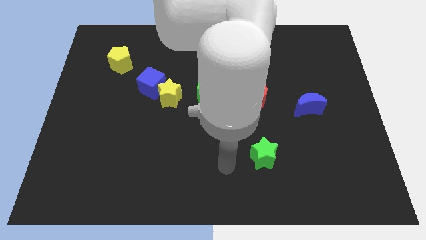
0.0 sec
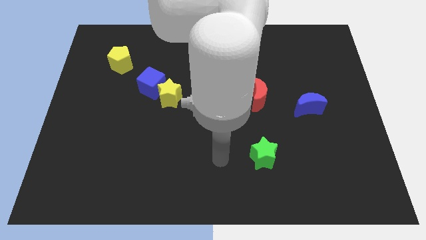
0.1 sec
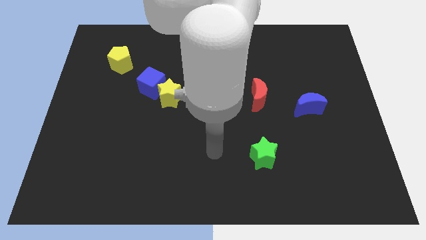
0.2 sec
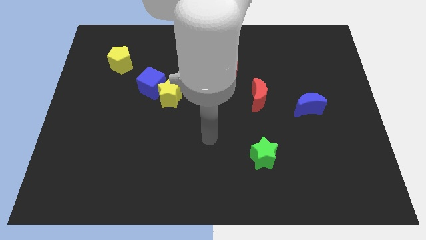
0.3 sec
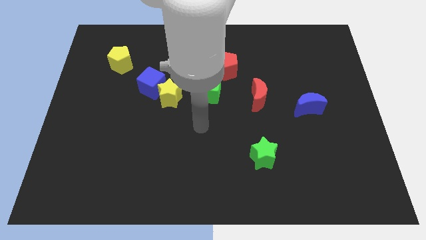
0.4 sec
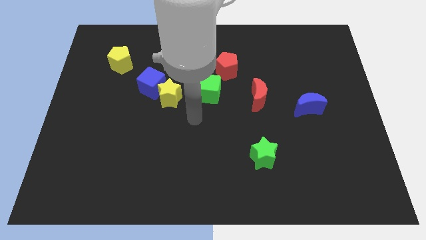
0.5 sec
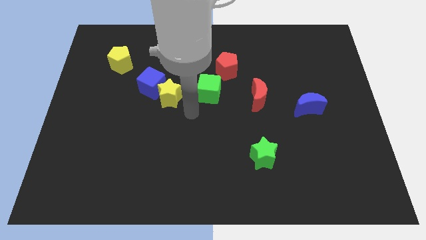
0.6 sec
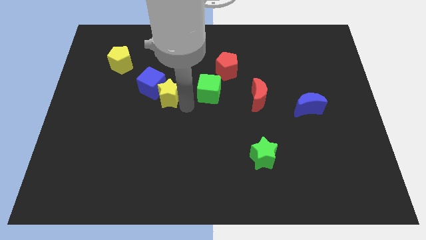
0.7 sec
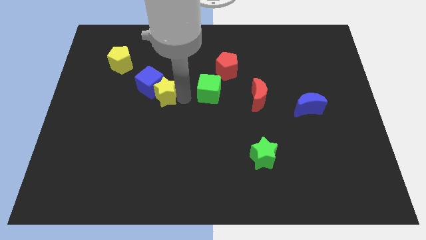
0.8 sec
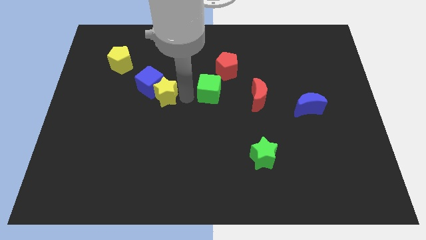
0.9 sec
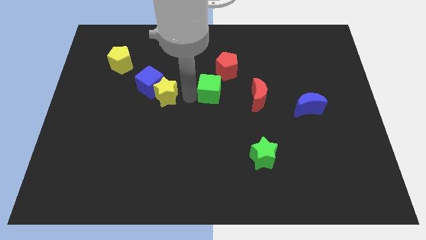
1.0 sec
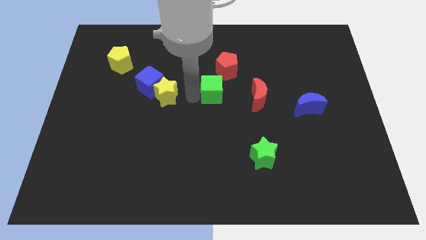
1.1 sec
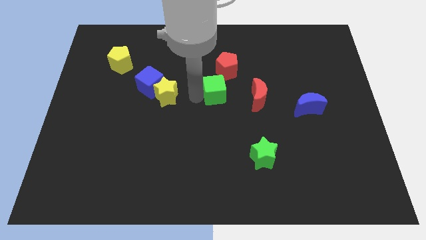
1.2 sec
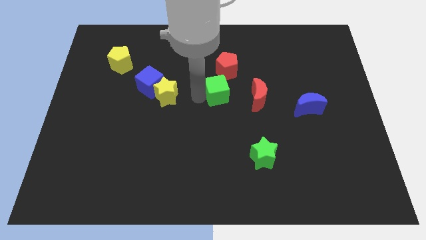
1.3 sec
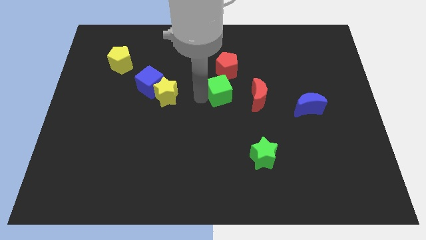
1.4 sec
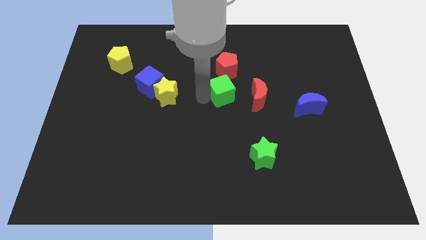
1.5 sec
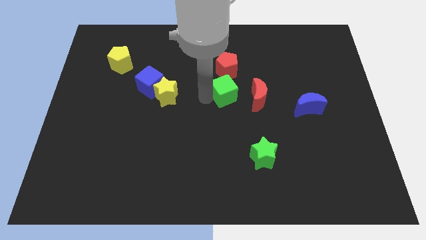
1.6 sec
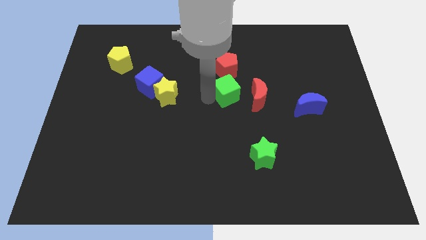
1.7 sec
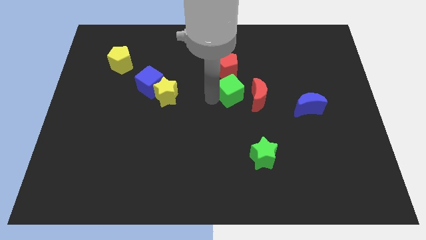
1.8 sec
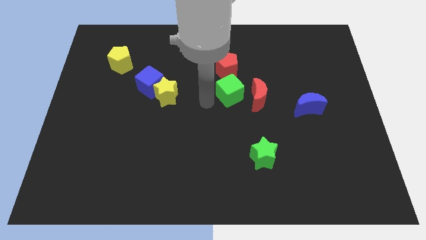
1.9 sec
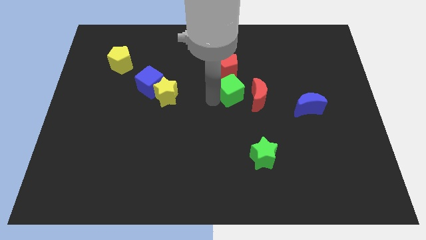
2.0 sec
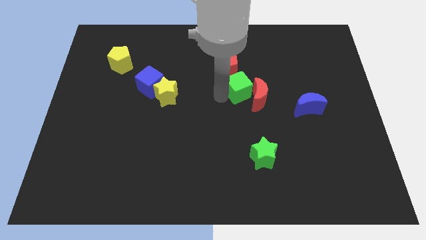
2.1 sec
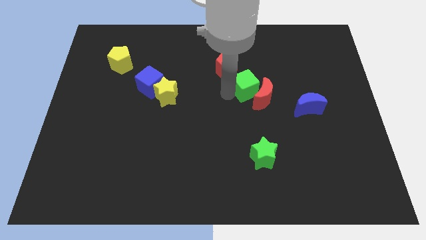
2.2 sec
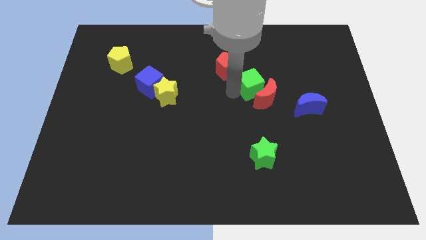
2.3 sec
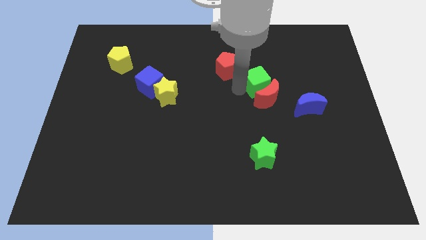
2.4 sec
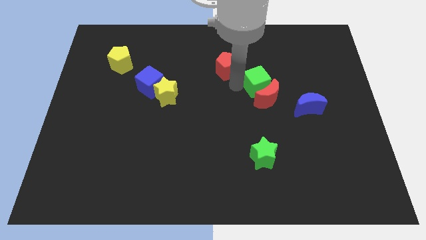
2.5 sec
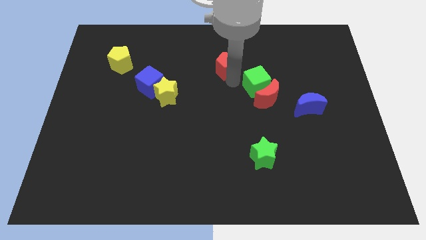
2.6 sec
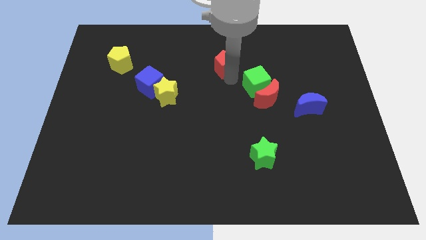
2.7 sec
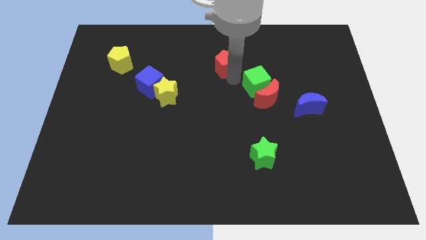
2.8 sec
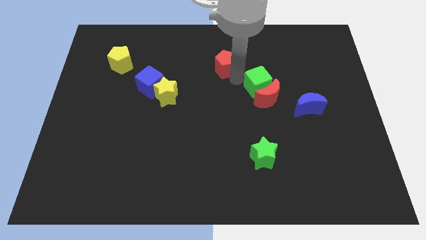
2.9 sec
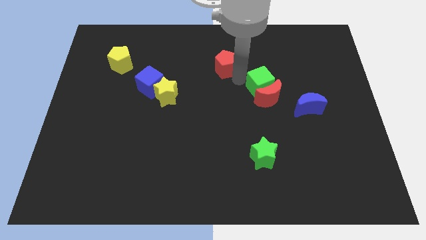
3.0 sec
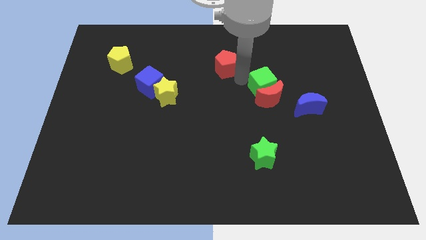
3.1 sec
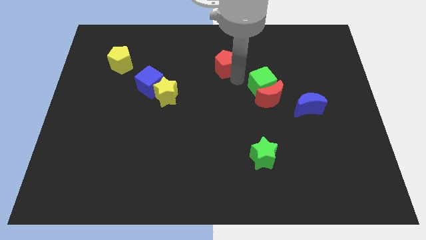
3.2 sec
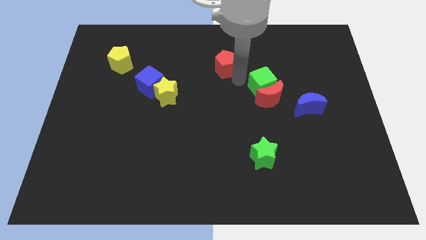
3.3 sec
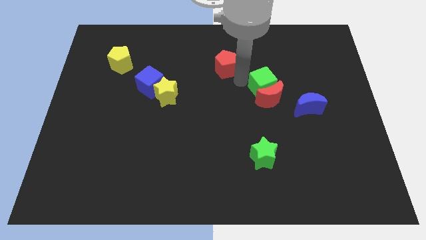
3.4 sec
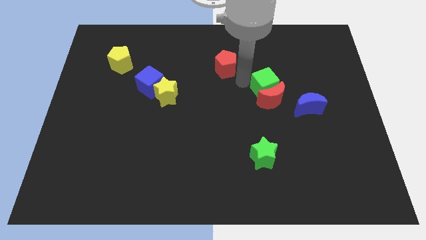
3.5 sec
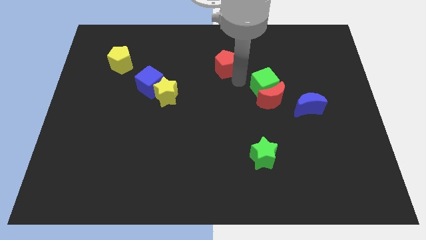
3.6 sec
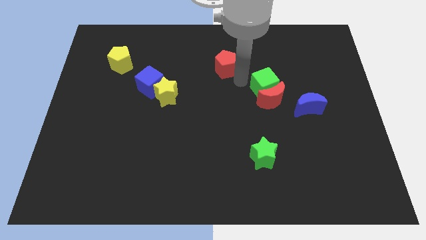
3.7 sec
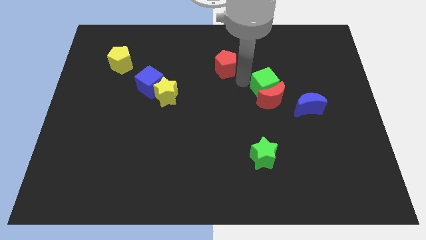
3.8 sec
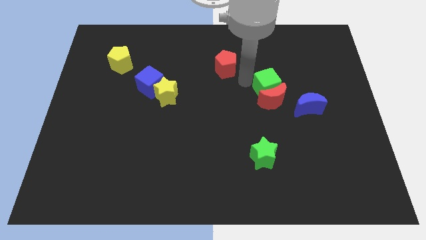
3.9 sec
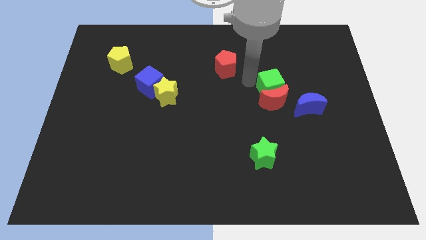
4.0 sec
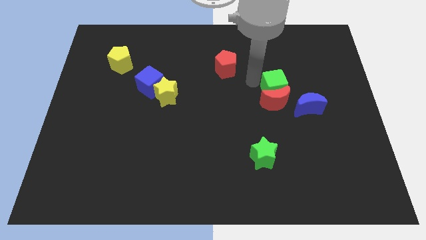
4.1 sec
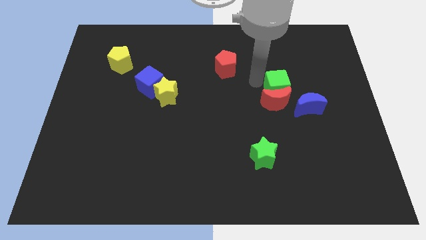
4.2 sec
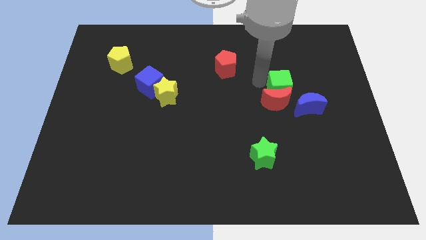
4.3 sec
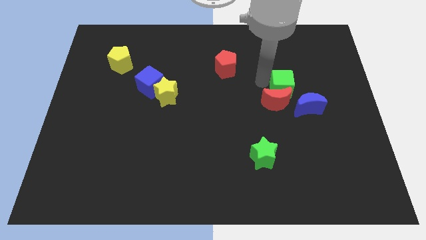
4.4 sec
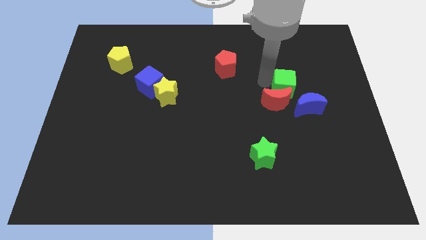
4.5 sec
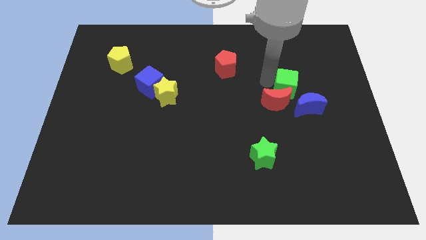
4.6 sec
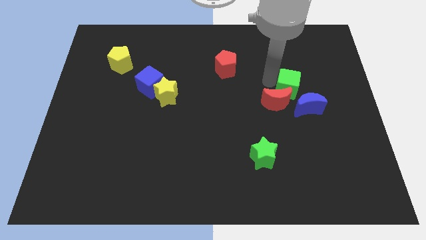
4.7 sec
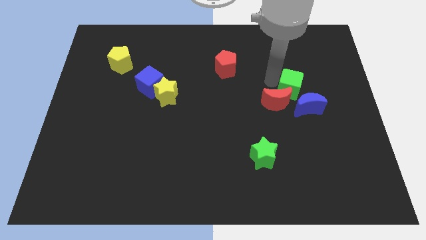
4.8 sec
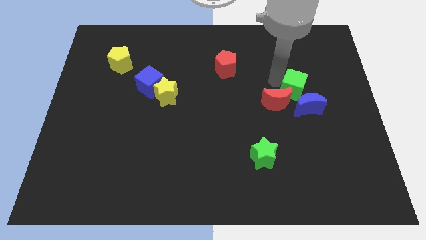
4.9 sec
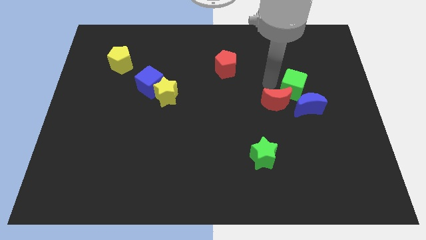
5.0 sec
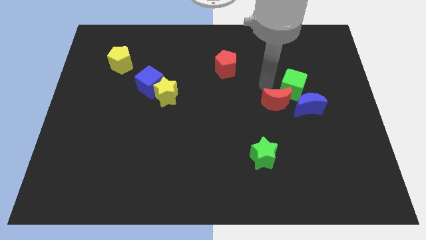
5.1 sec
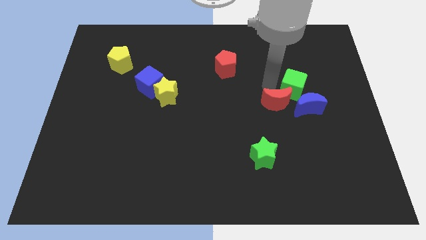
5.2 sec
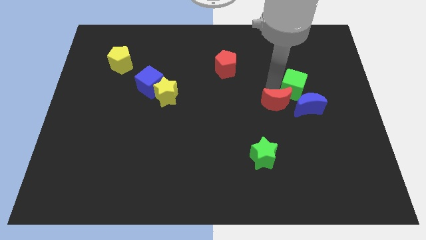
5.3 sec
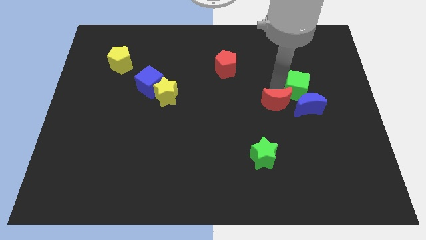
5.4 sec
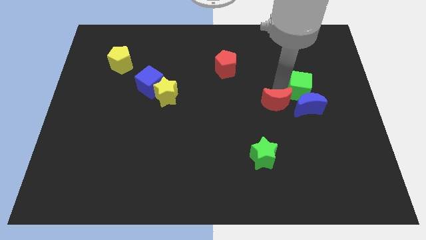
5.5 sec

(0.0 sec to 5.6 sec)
slide the green cube to the top right side of the blue moon

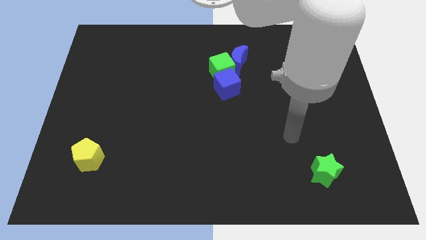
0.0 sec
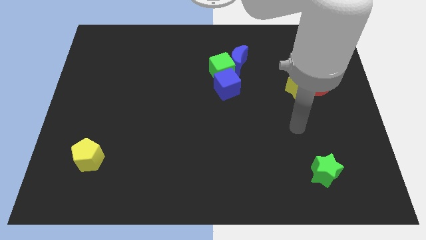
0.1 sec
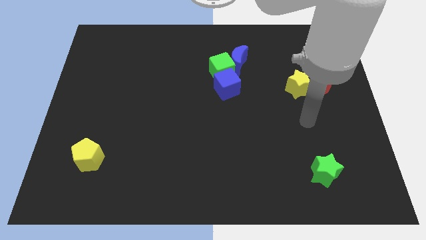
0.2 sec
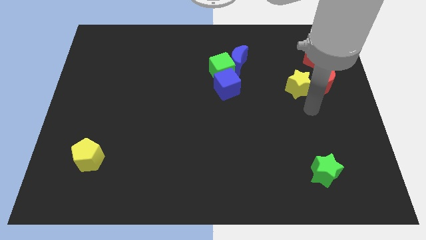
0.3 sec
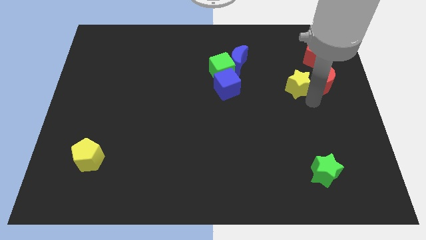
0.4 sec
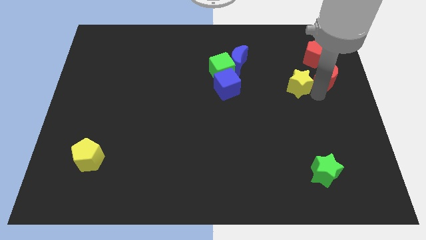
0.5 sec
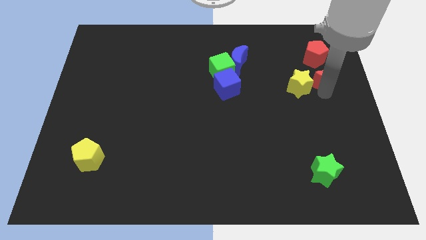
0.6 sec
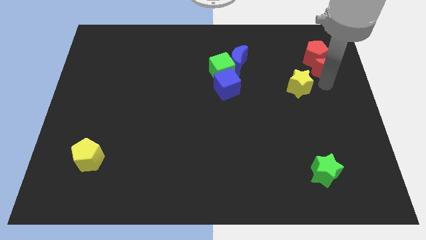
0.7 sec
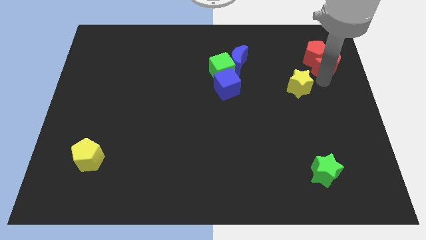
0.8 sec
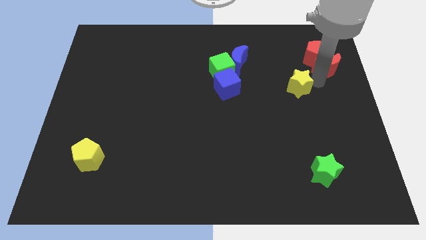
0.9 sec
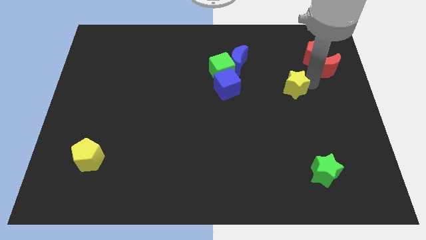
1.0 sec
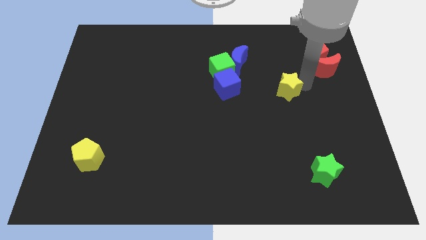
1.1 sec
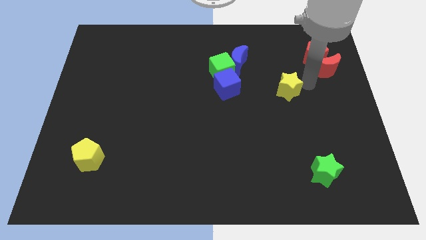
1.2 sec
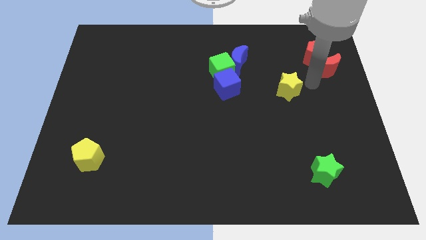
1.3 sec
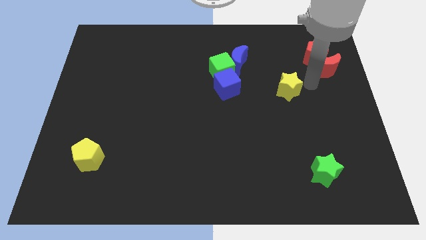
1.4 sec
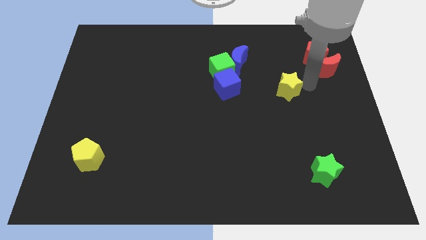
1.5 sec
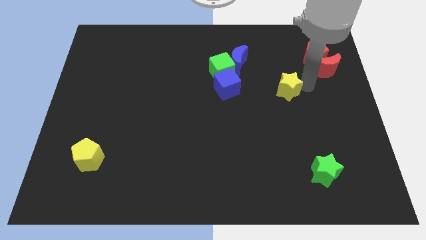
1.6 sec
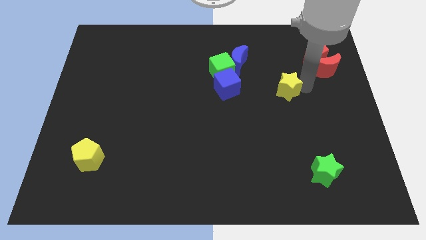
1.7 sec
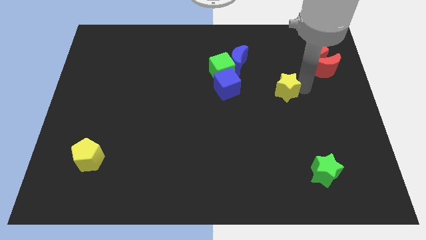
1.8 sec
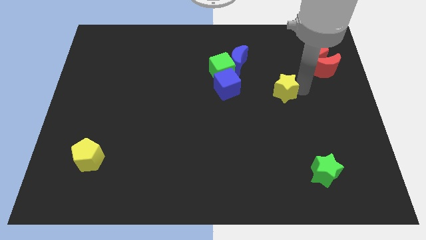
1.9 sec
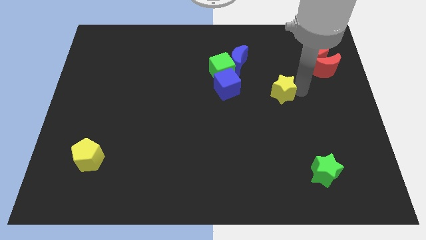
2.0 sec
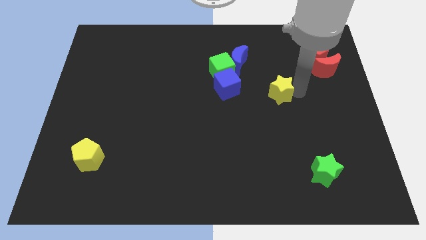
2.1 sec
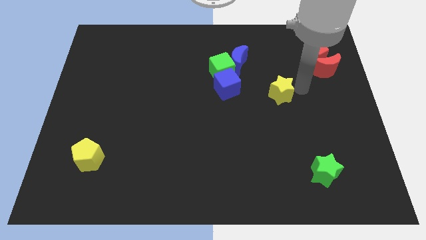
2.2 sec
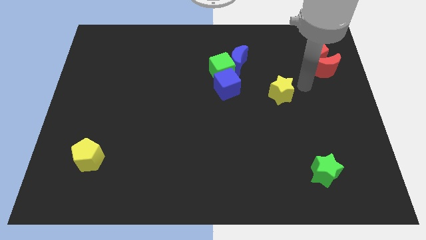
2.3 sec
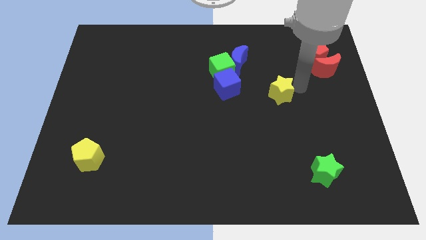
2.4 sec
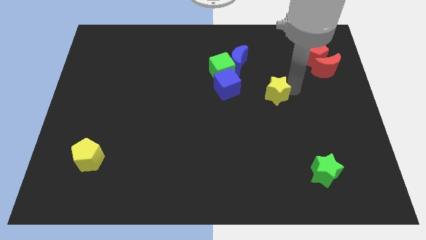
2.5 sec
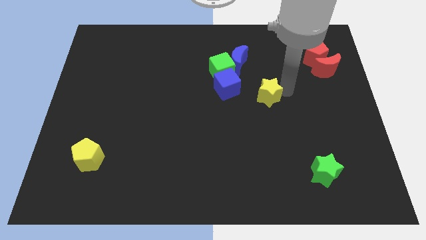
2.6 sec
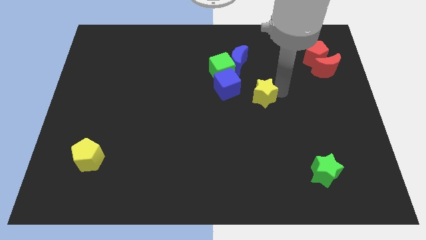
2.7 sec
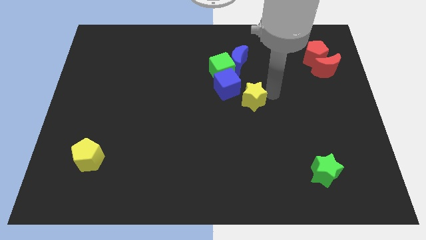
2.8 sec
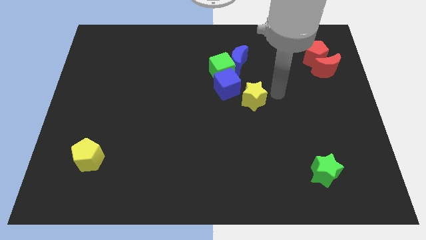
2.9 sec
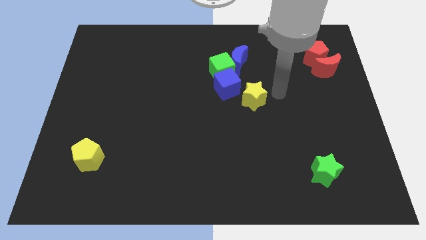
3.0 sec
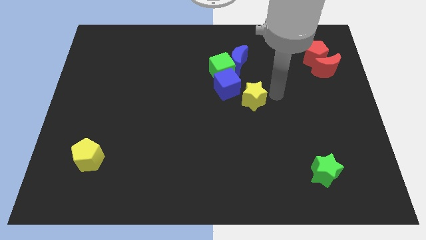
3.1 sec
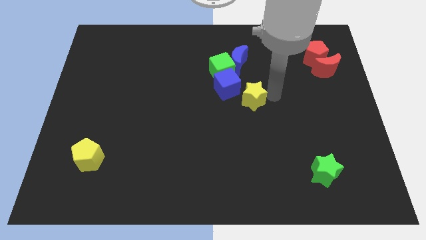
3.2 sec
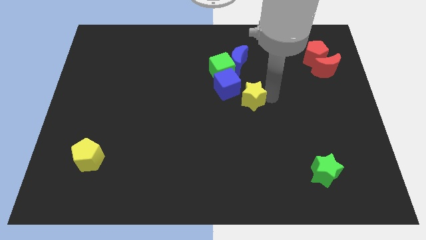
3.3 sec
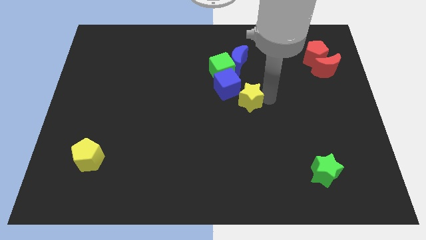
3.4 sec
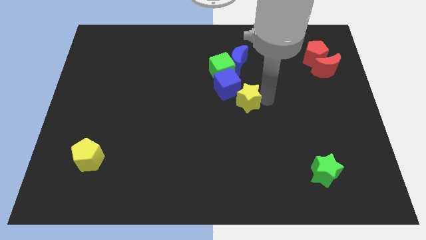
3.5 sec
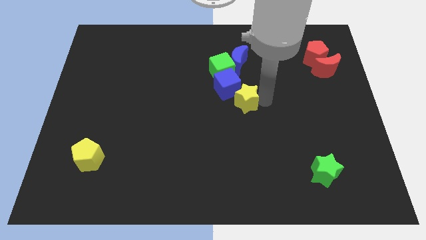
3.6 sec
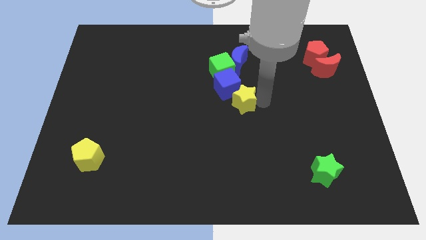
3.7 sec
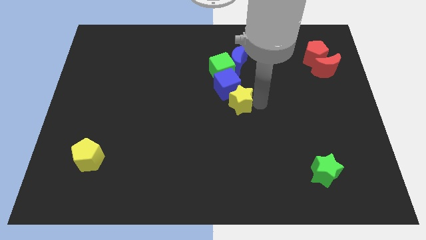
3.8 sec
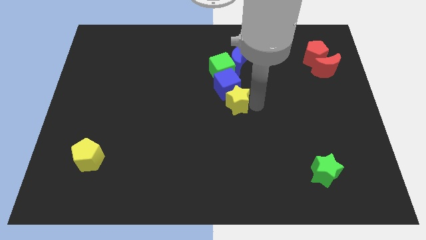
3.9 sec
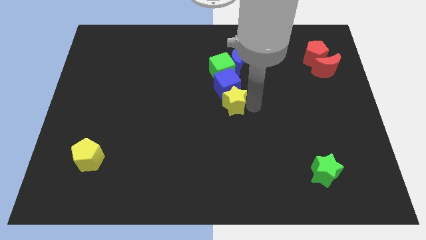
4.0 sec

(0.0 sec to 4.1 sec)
slide the yellow star diagonally down and to the left of the blue cube
